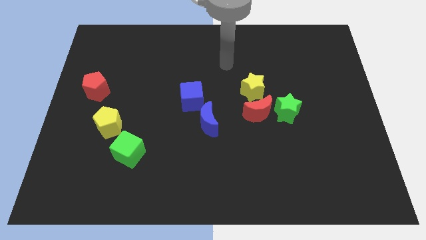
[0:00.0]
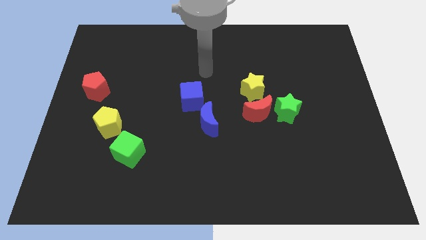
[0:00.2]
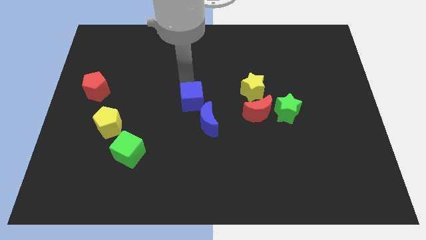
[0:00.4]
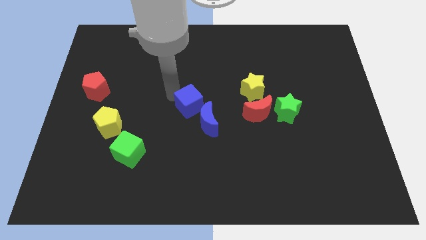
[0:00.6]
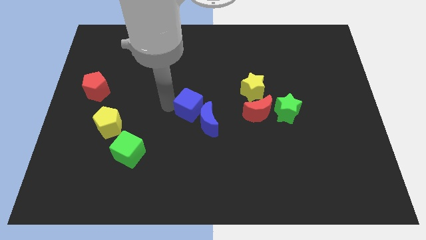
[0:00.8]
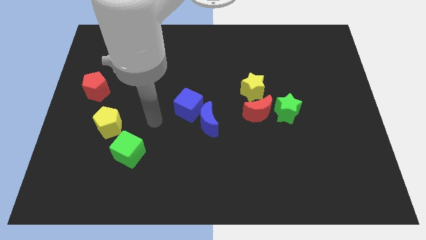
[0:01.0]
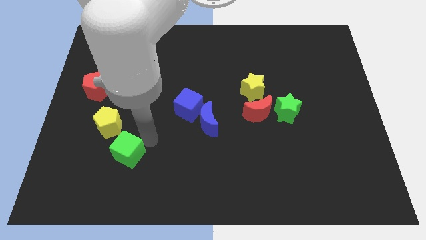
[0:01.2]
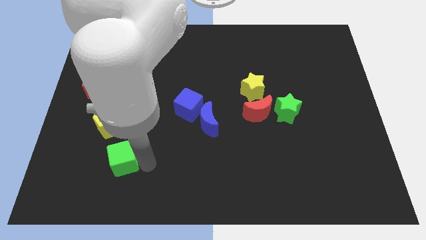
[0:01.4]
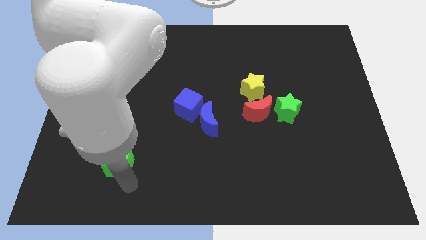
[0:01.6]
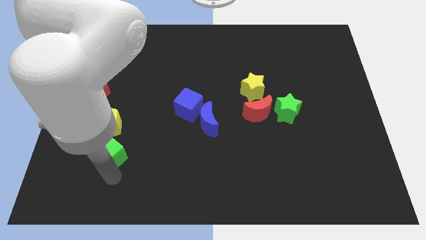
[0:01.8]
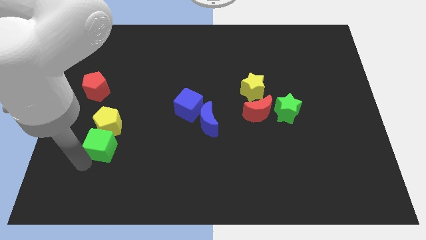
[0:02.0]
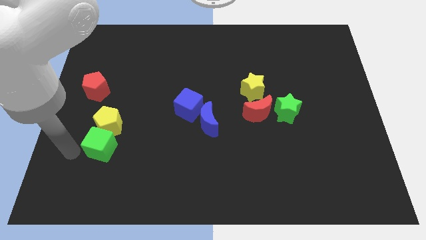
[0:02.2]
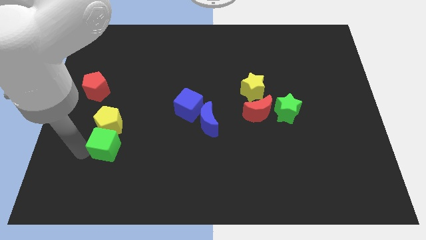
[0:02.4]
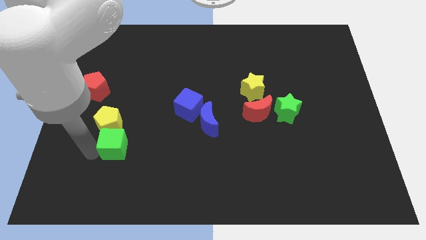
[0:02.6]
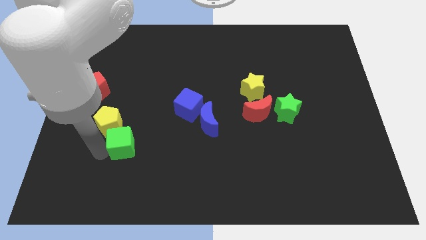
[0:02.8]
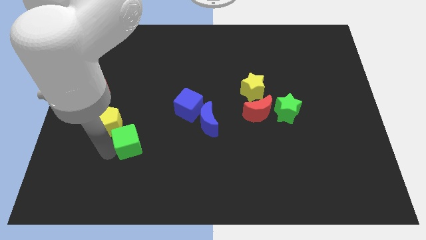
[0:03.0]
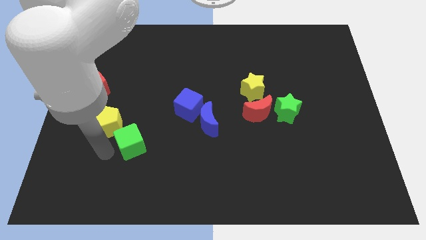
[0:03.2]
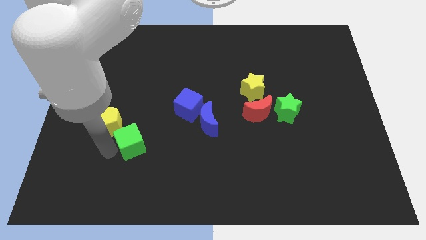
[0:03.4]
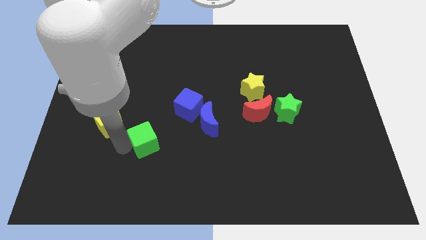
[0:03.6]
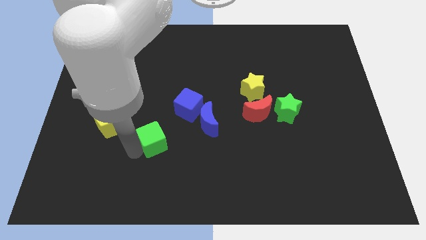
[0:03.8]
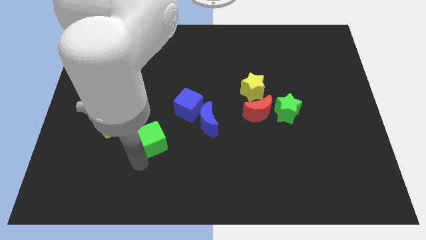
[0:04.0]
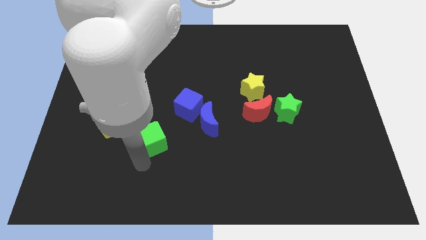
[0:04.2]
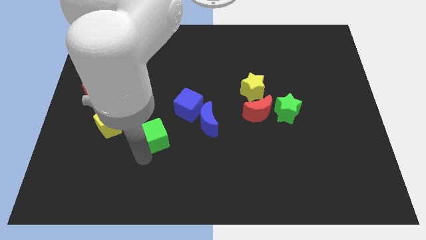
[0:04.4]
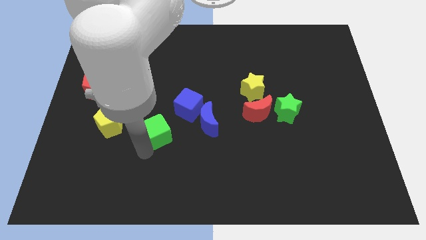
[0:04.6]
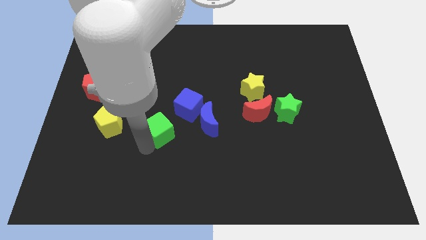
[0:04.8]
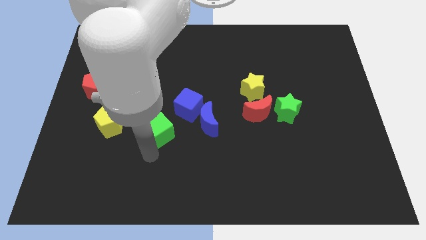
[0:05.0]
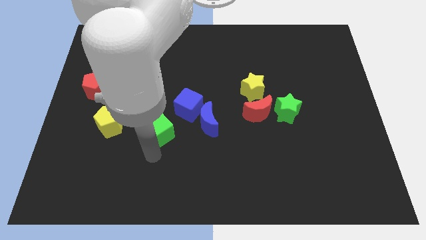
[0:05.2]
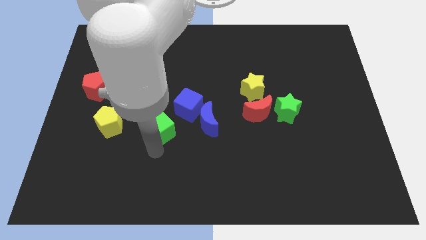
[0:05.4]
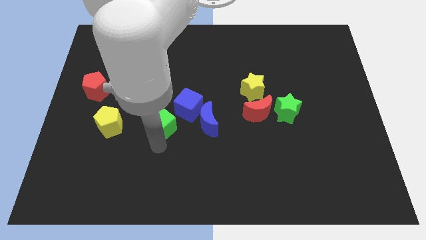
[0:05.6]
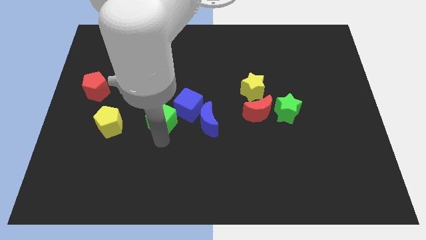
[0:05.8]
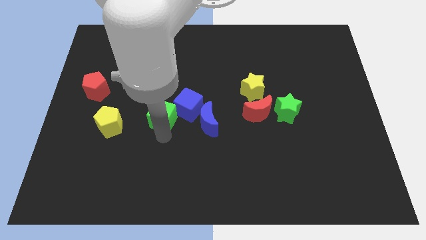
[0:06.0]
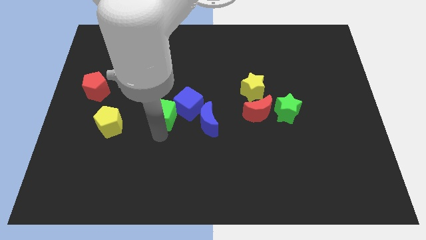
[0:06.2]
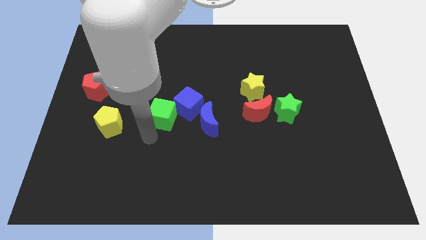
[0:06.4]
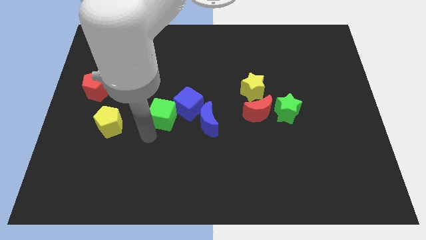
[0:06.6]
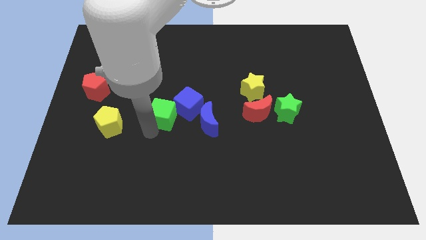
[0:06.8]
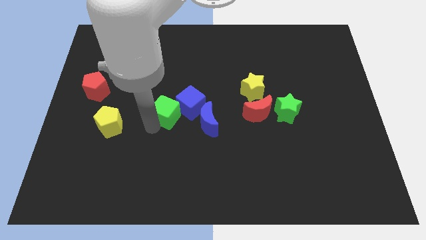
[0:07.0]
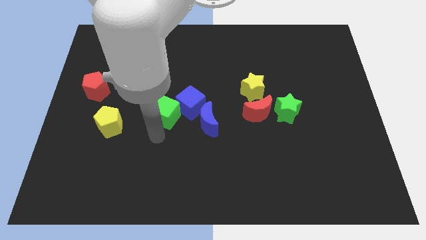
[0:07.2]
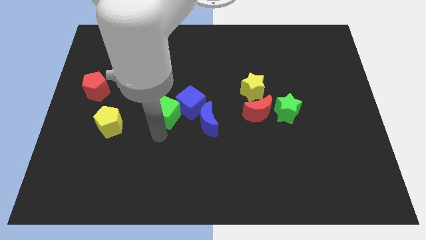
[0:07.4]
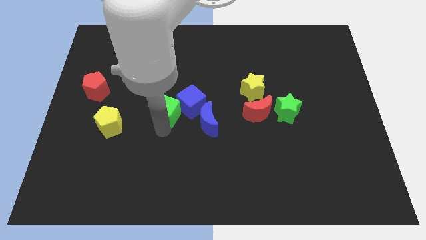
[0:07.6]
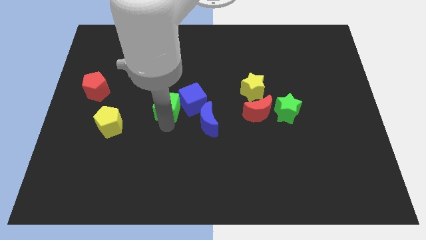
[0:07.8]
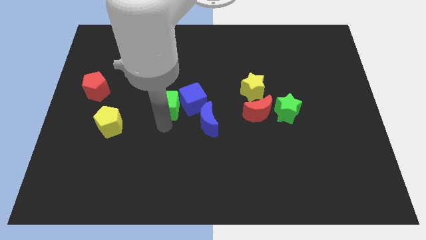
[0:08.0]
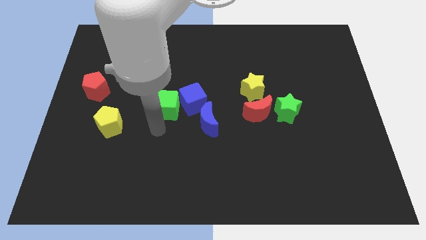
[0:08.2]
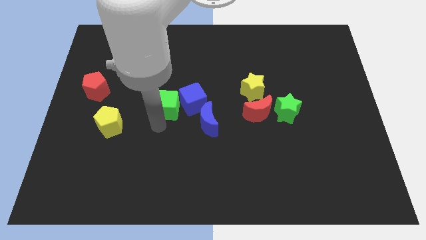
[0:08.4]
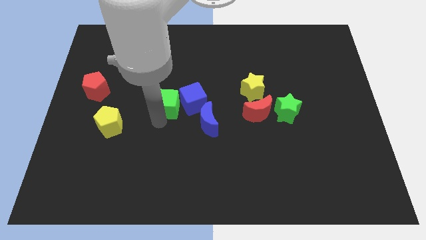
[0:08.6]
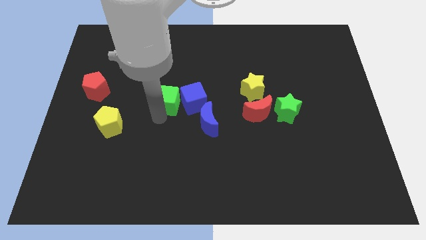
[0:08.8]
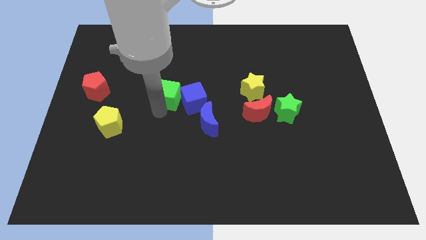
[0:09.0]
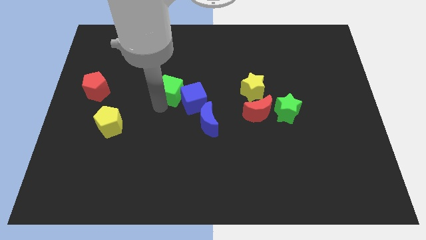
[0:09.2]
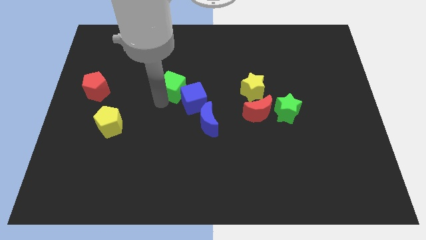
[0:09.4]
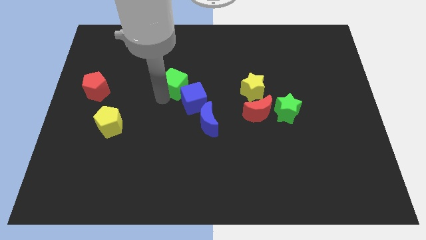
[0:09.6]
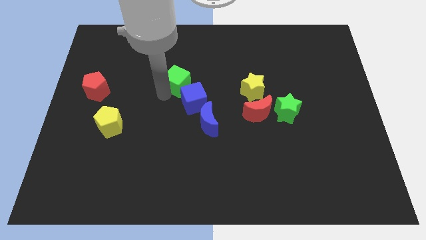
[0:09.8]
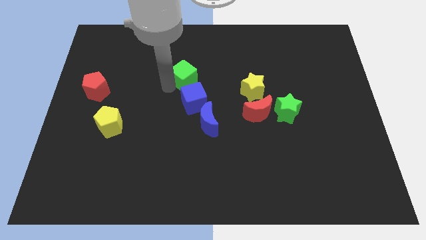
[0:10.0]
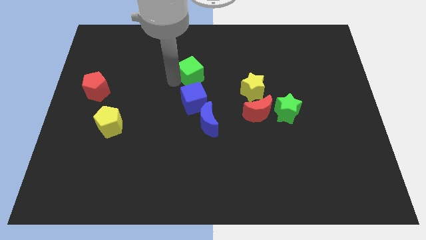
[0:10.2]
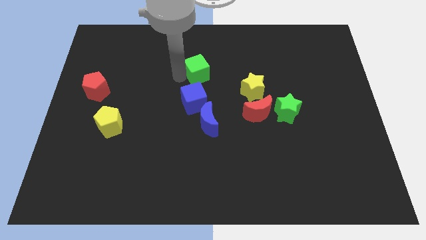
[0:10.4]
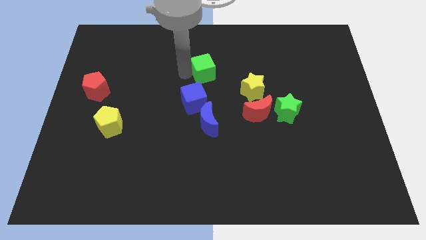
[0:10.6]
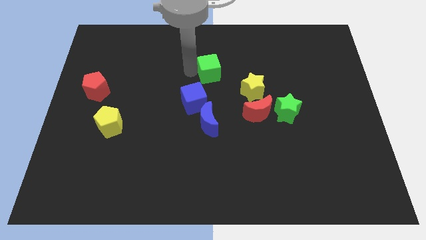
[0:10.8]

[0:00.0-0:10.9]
move the green cube to the top left of the yellow star

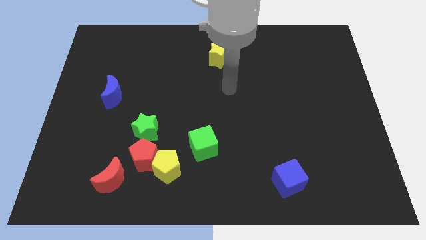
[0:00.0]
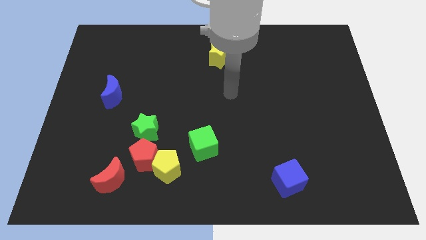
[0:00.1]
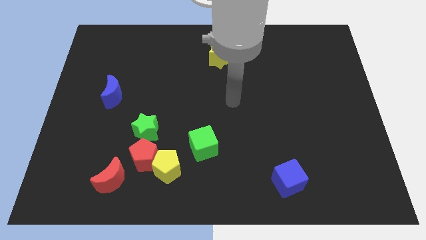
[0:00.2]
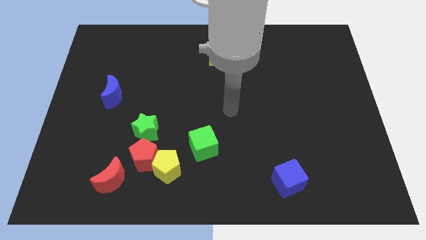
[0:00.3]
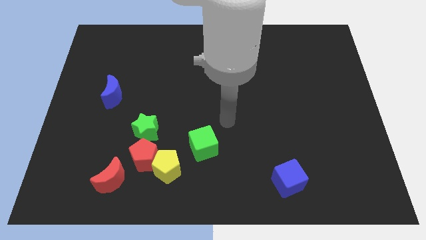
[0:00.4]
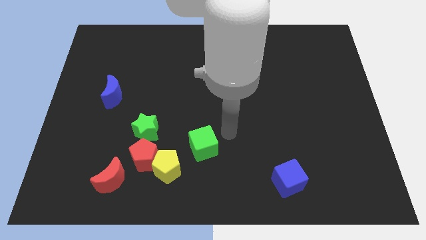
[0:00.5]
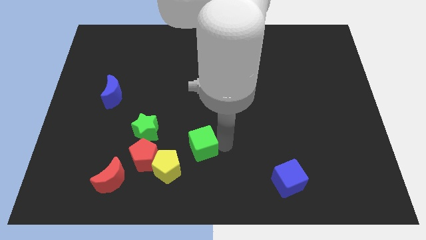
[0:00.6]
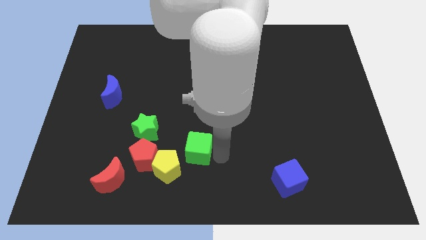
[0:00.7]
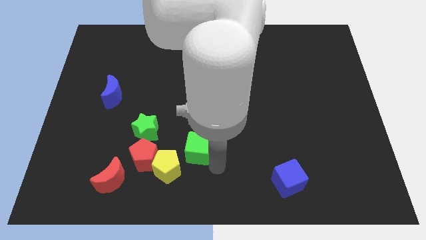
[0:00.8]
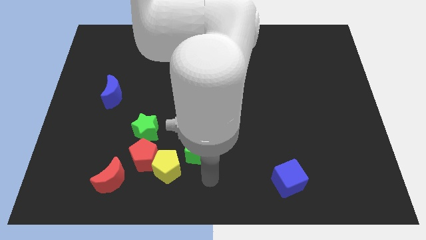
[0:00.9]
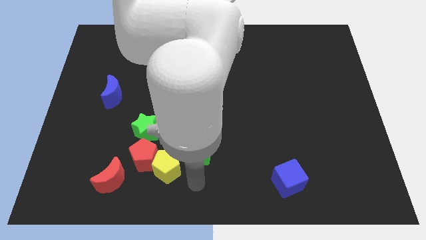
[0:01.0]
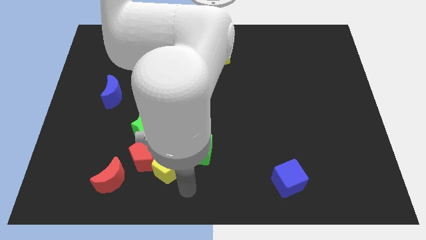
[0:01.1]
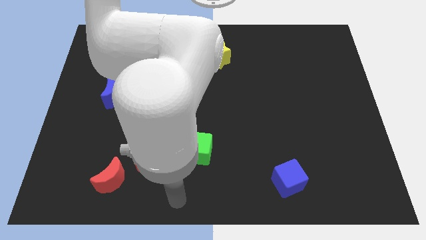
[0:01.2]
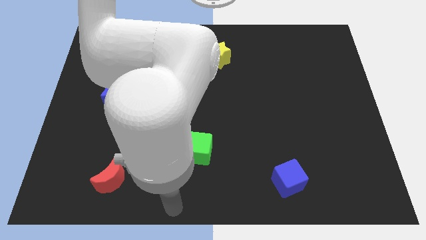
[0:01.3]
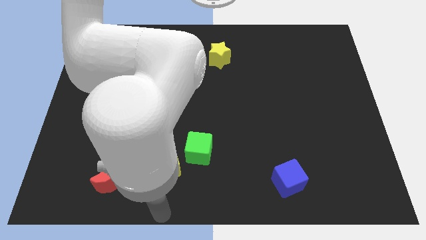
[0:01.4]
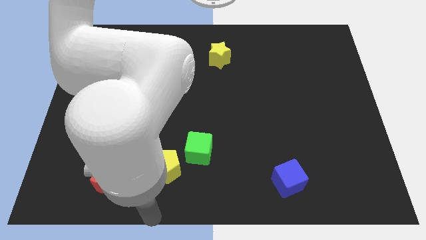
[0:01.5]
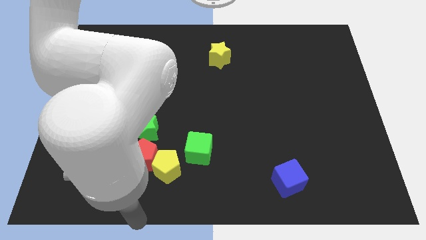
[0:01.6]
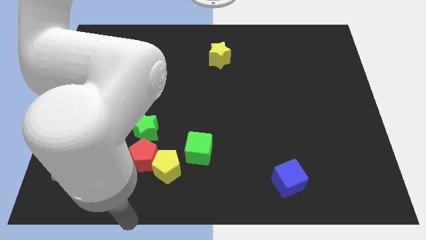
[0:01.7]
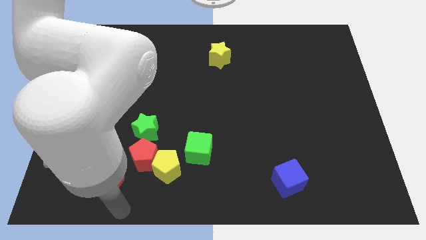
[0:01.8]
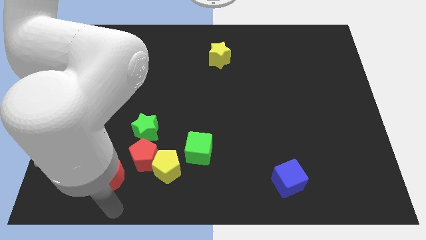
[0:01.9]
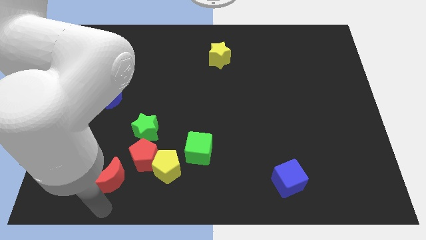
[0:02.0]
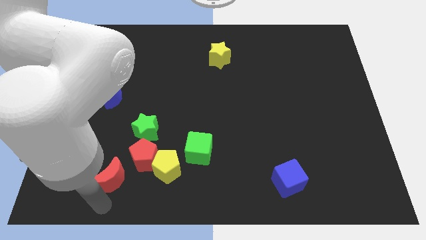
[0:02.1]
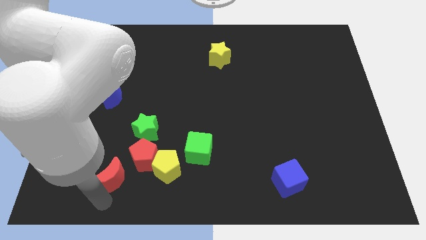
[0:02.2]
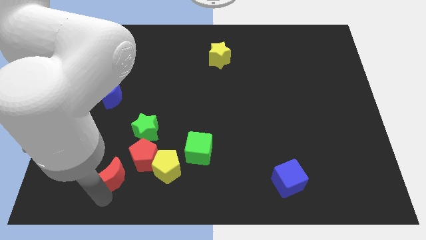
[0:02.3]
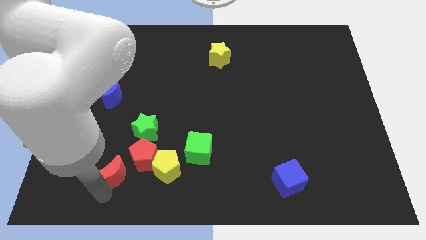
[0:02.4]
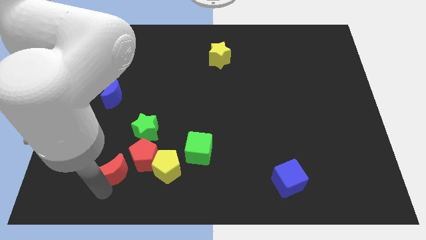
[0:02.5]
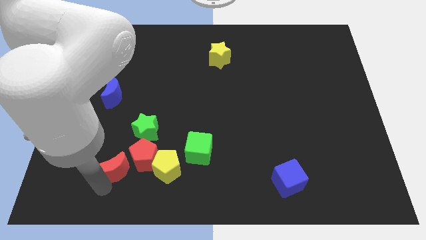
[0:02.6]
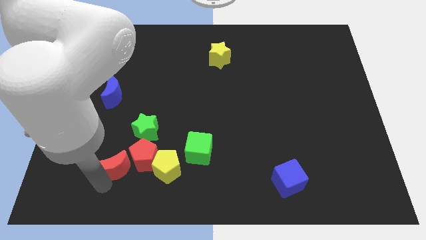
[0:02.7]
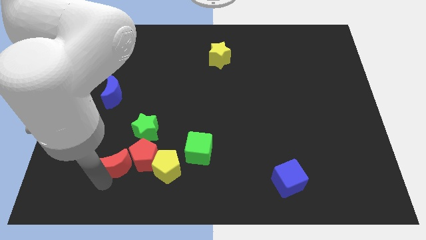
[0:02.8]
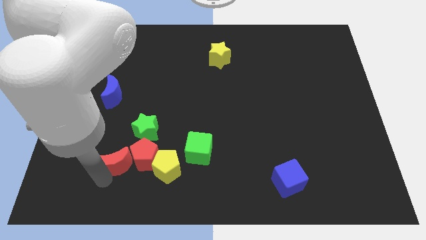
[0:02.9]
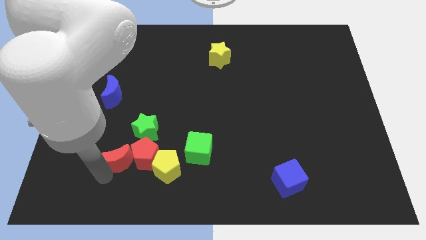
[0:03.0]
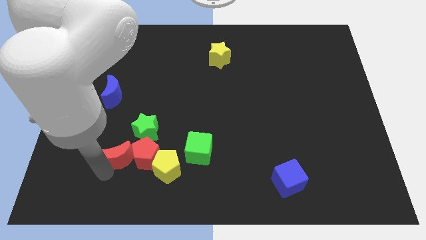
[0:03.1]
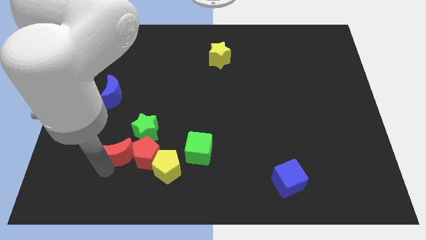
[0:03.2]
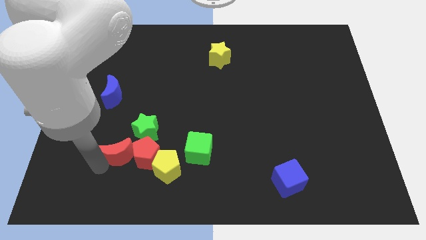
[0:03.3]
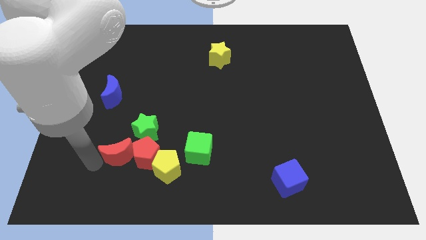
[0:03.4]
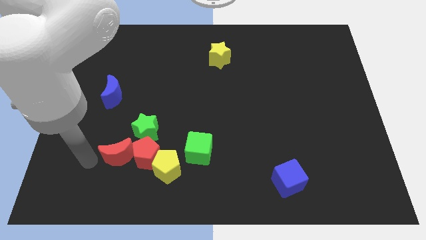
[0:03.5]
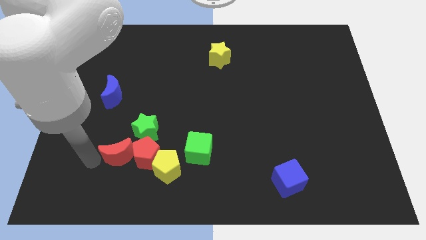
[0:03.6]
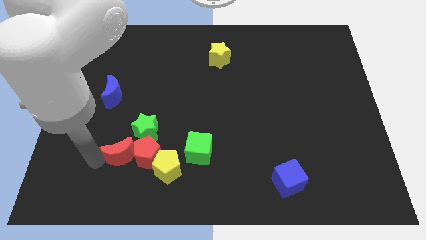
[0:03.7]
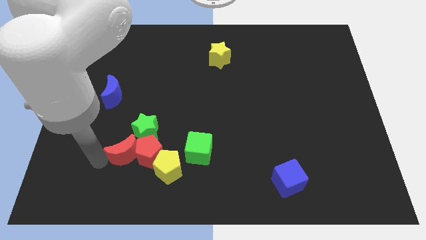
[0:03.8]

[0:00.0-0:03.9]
put the red moon to the left of the green cube
